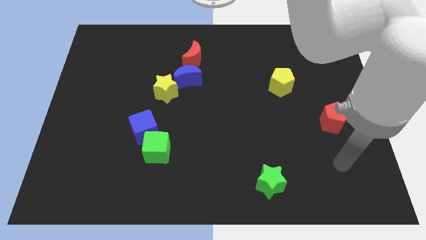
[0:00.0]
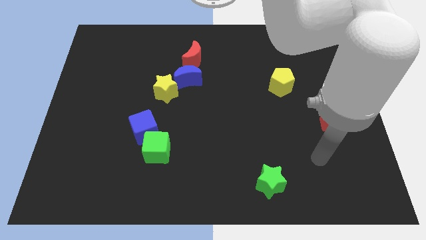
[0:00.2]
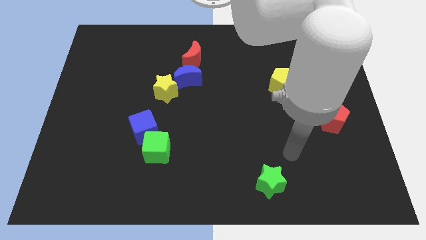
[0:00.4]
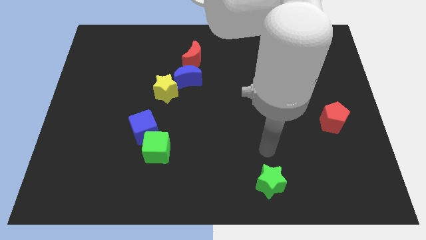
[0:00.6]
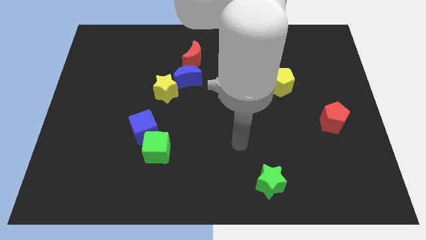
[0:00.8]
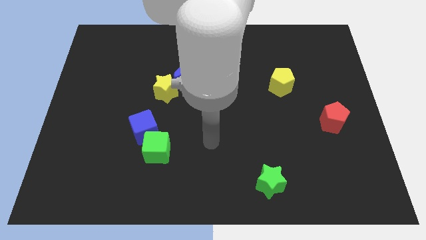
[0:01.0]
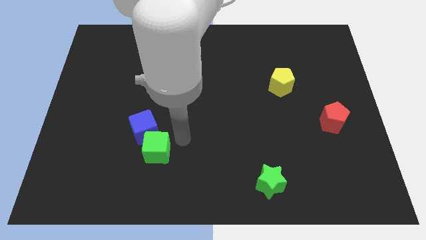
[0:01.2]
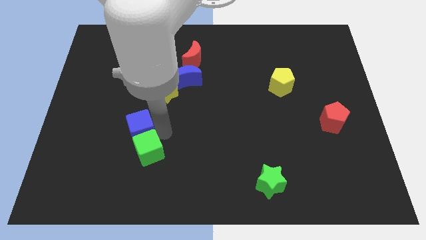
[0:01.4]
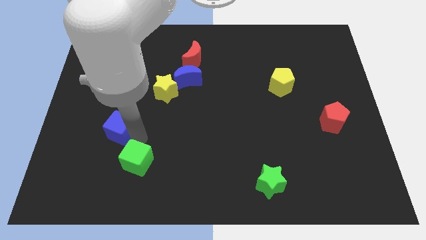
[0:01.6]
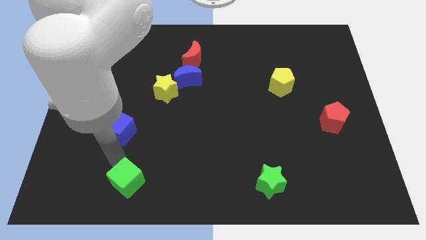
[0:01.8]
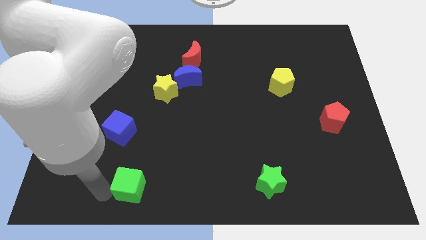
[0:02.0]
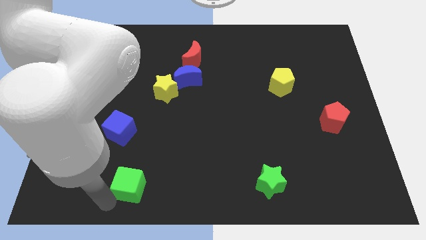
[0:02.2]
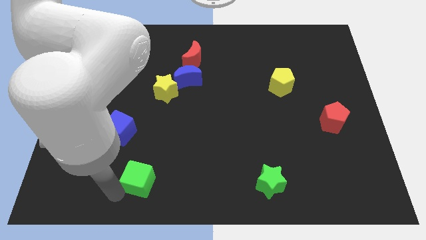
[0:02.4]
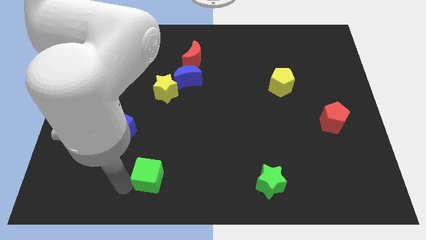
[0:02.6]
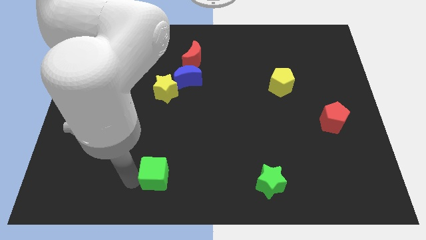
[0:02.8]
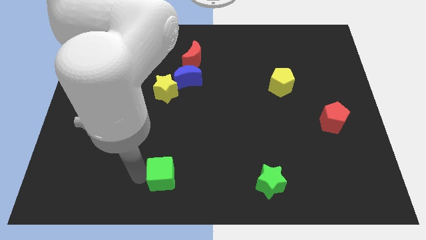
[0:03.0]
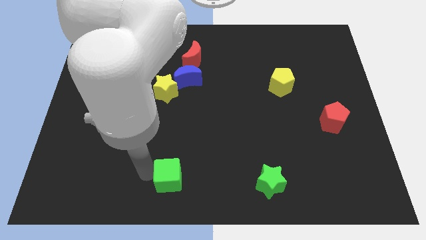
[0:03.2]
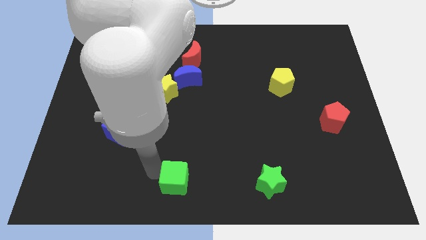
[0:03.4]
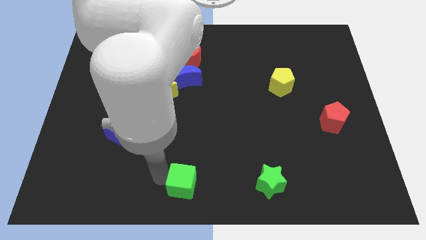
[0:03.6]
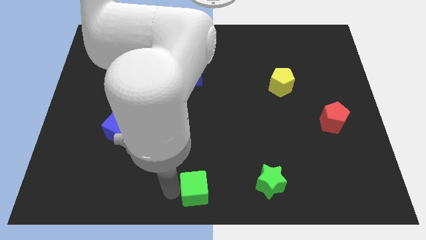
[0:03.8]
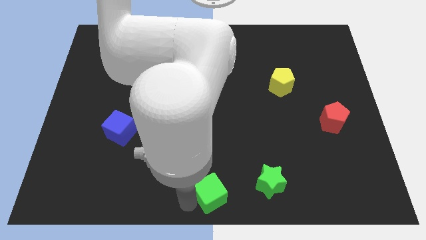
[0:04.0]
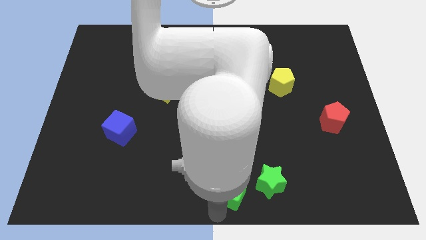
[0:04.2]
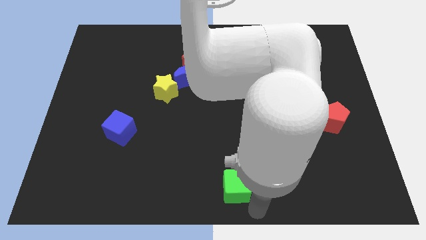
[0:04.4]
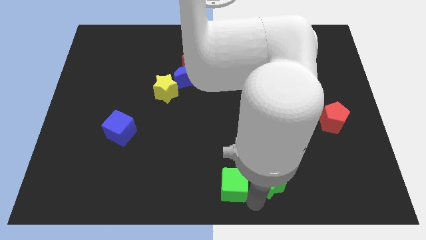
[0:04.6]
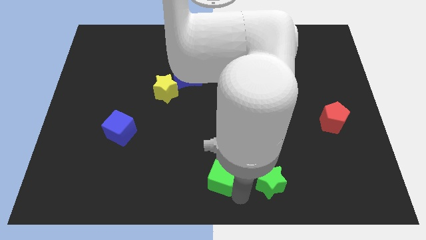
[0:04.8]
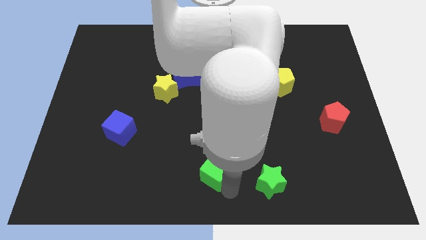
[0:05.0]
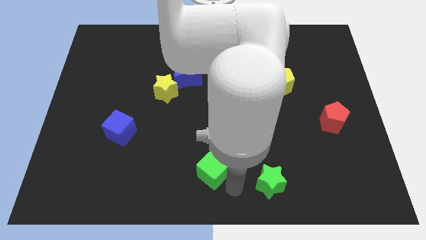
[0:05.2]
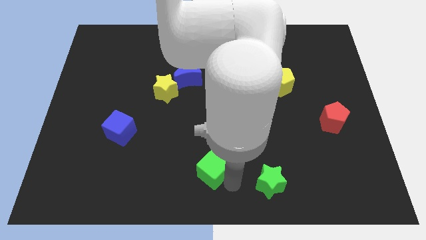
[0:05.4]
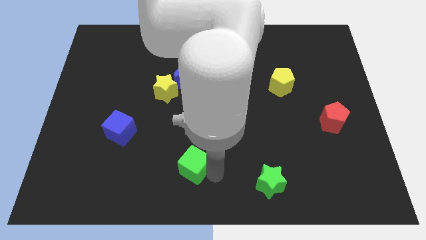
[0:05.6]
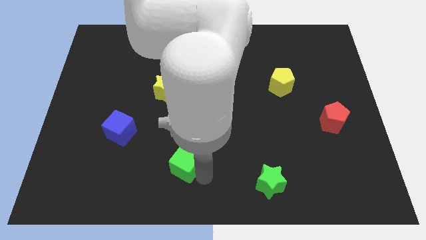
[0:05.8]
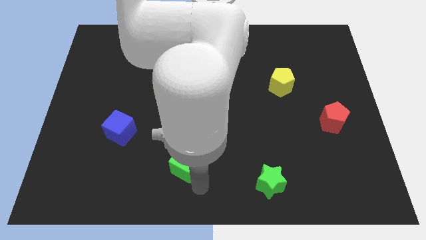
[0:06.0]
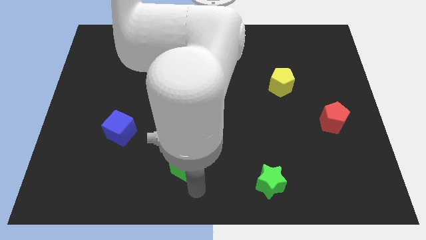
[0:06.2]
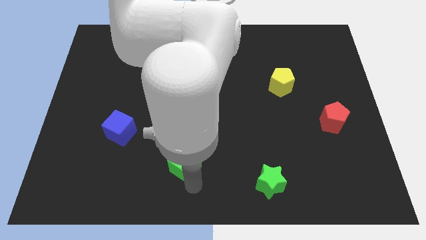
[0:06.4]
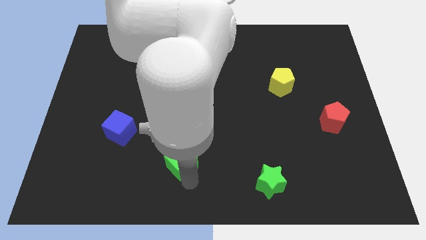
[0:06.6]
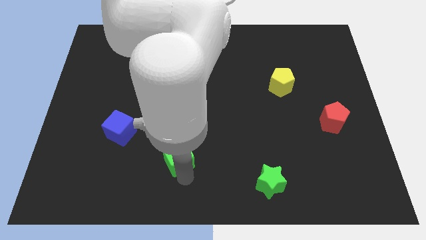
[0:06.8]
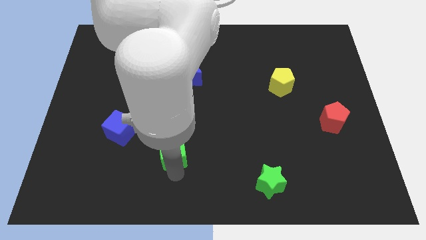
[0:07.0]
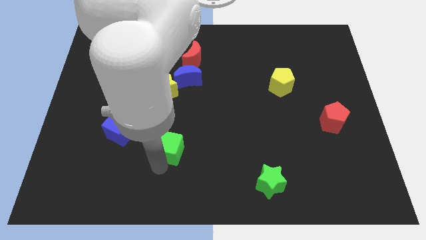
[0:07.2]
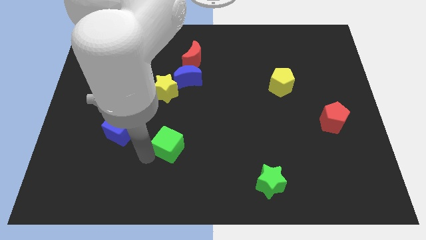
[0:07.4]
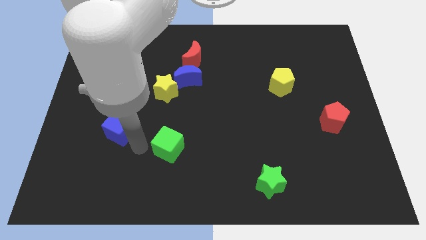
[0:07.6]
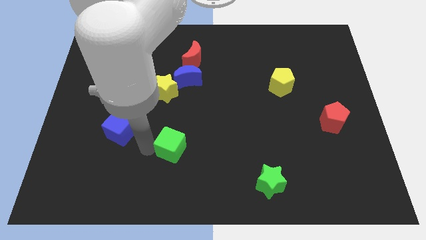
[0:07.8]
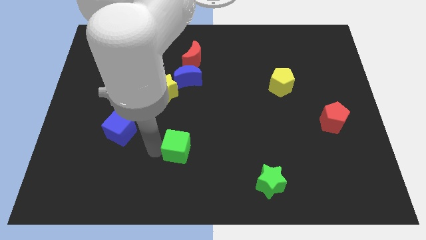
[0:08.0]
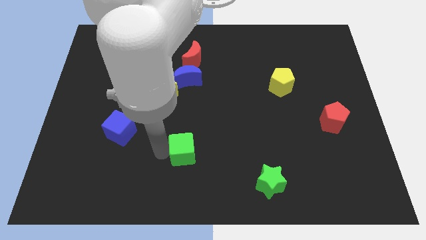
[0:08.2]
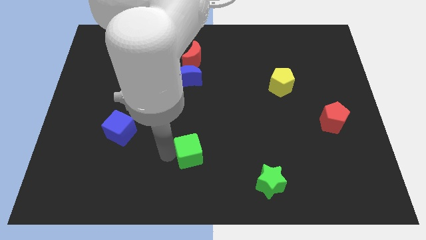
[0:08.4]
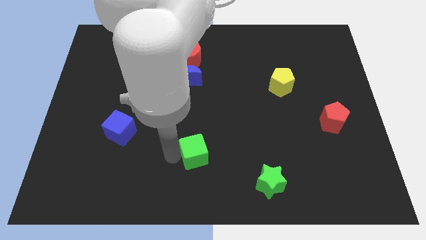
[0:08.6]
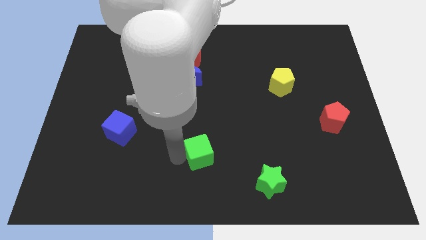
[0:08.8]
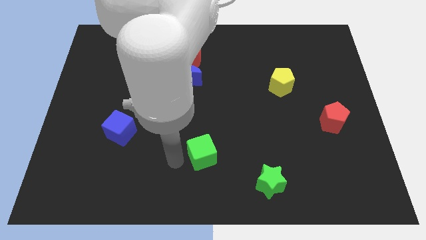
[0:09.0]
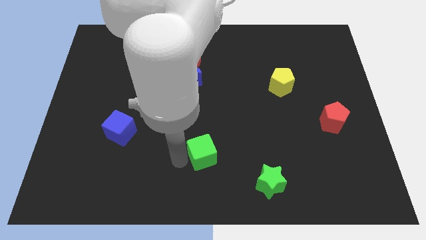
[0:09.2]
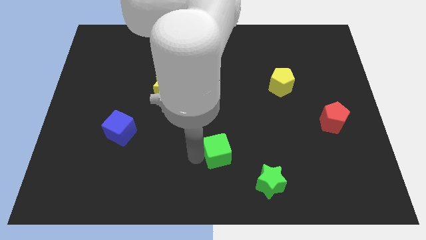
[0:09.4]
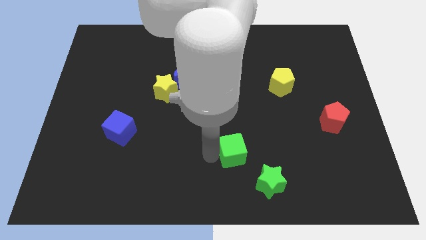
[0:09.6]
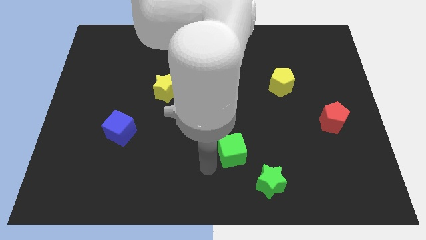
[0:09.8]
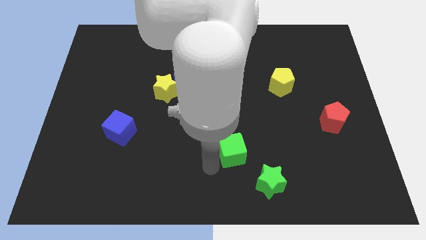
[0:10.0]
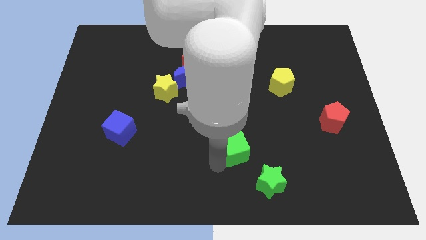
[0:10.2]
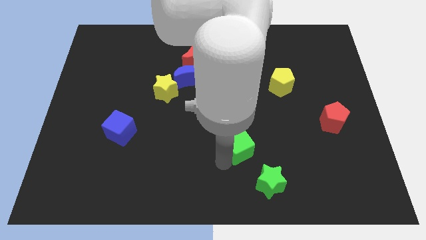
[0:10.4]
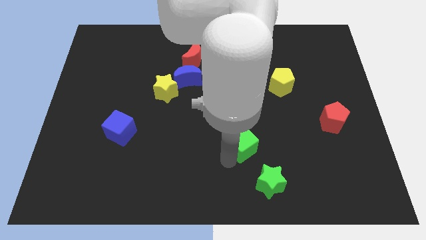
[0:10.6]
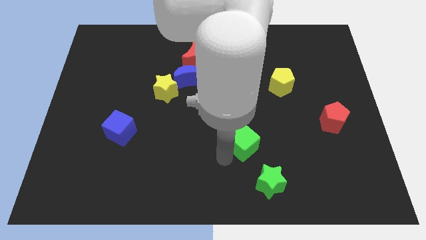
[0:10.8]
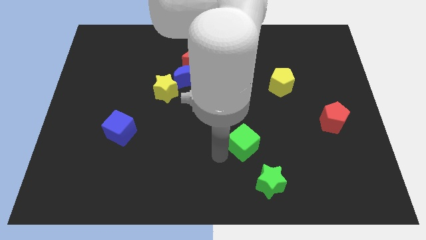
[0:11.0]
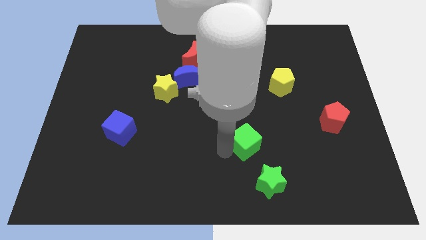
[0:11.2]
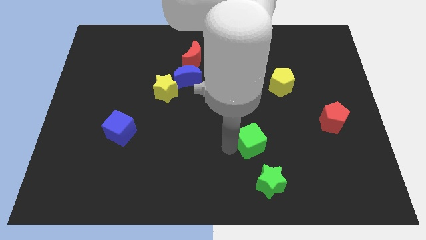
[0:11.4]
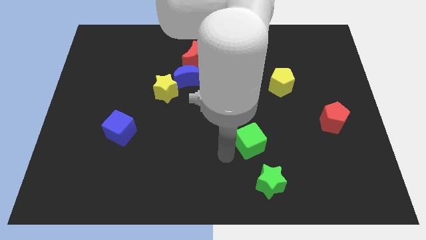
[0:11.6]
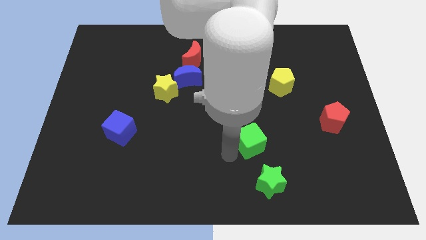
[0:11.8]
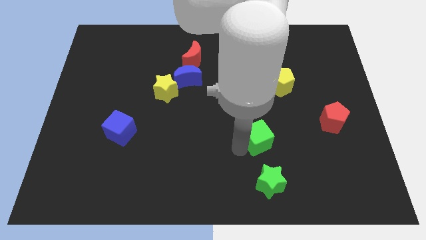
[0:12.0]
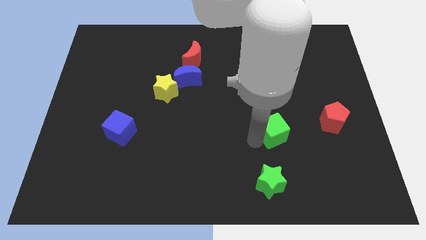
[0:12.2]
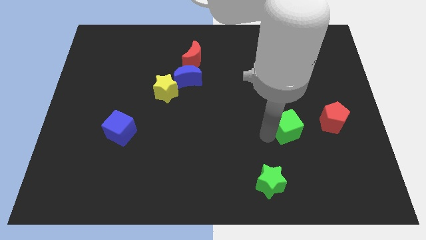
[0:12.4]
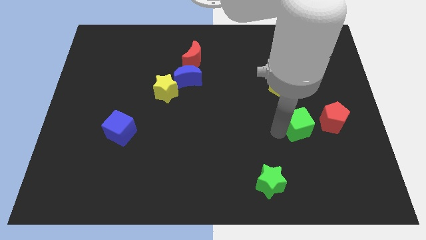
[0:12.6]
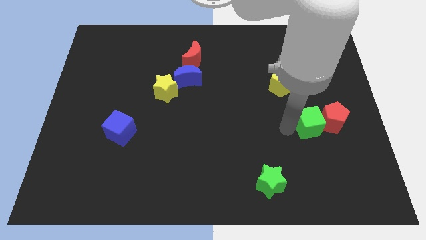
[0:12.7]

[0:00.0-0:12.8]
move the green cube close to the red pentagon

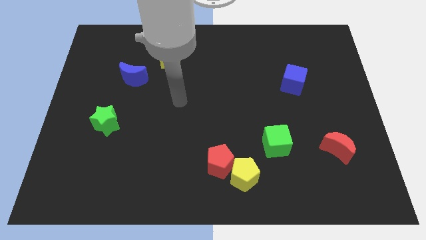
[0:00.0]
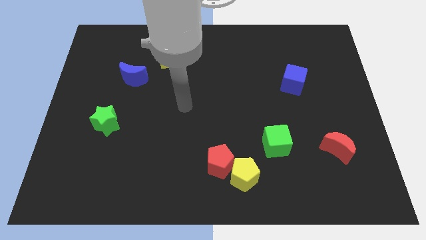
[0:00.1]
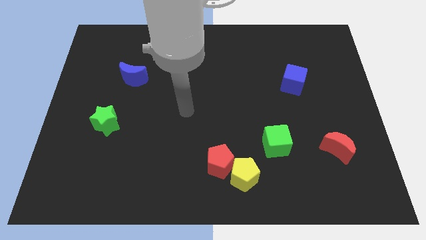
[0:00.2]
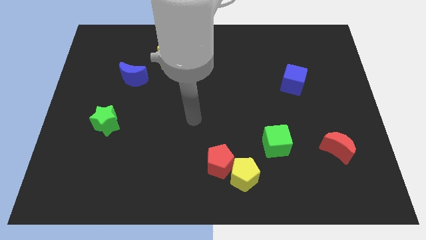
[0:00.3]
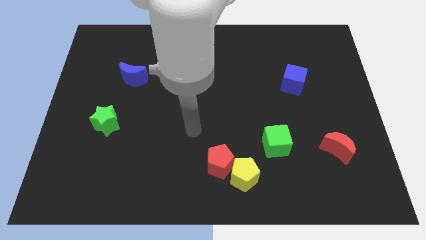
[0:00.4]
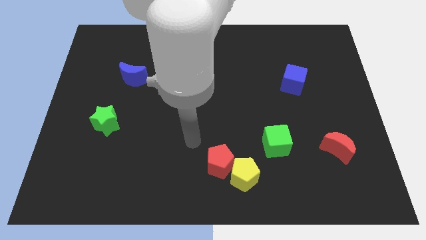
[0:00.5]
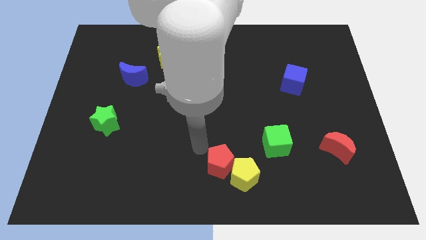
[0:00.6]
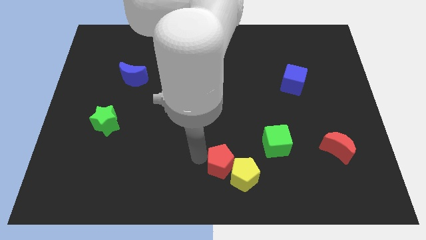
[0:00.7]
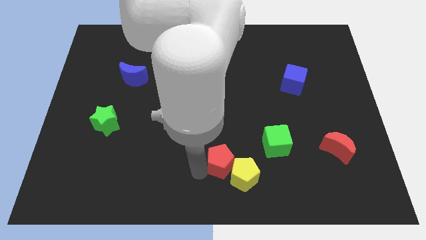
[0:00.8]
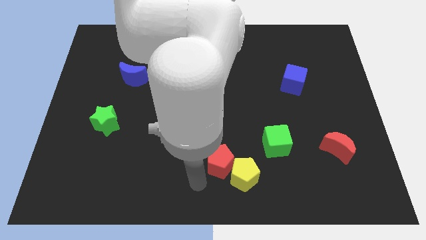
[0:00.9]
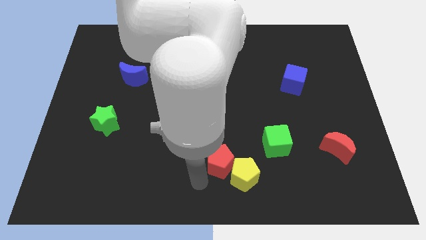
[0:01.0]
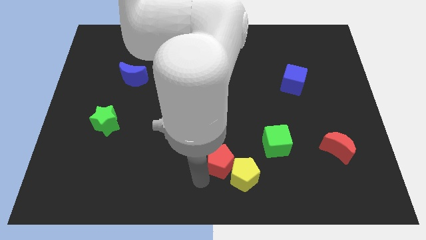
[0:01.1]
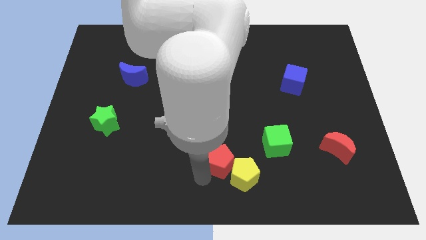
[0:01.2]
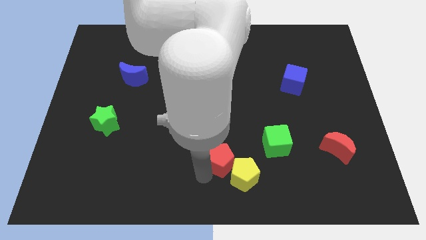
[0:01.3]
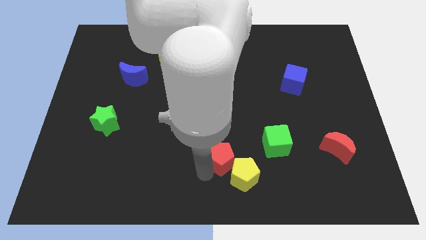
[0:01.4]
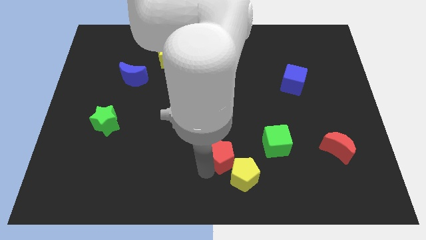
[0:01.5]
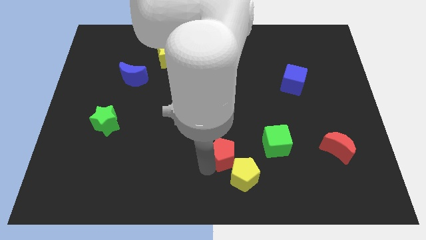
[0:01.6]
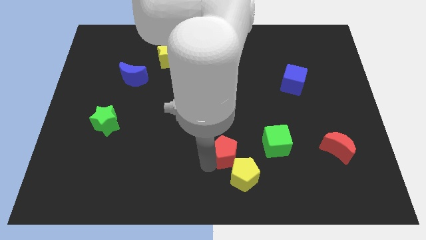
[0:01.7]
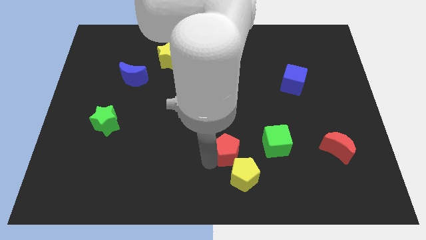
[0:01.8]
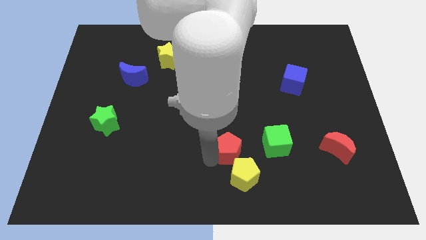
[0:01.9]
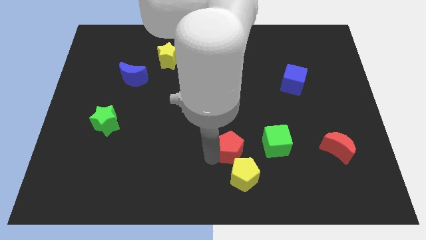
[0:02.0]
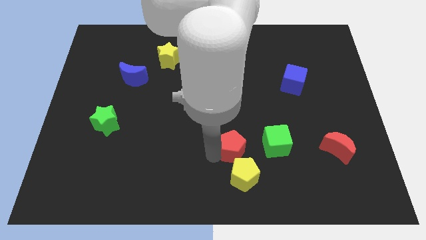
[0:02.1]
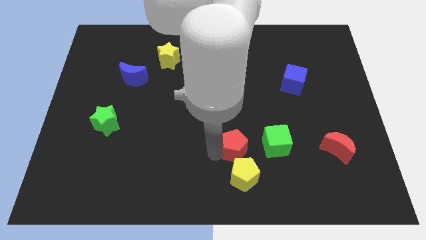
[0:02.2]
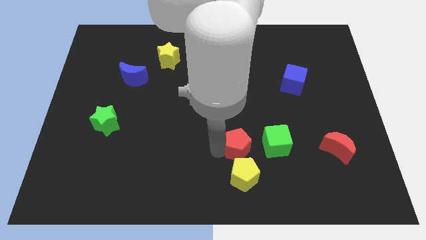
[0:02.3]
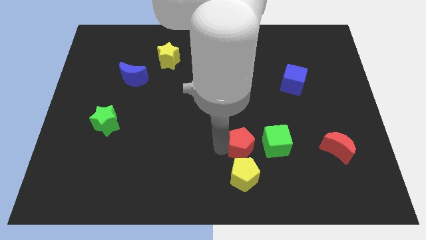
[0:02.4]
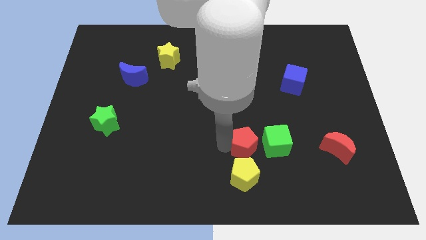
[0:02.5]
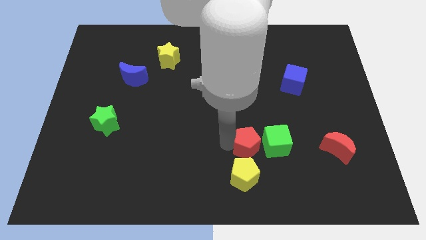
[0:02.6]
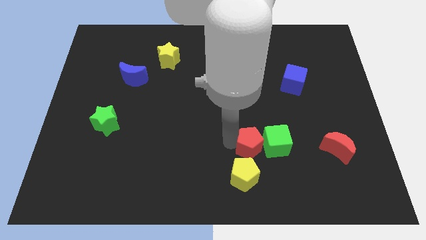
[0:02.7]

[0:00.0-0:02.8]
push the red pentagon close to the green cube
